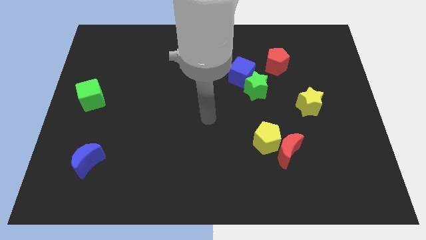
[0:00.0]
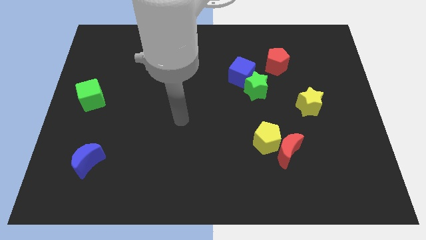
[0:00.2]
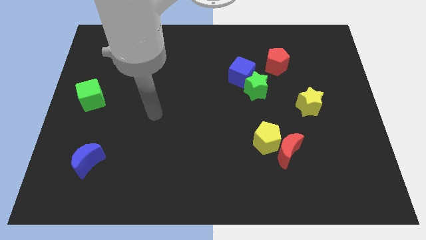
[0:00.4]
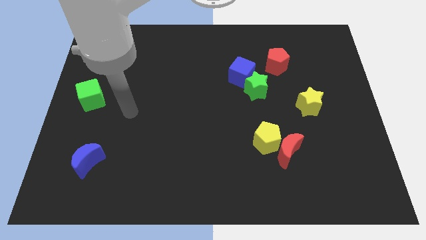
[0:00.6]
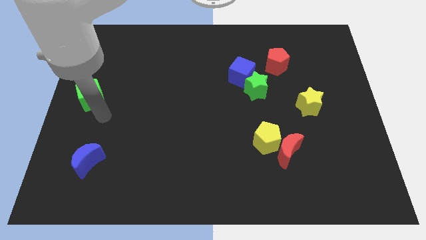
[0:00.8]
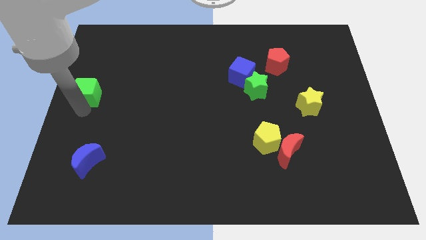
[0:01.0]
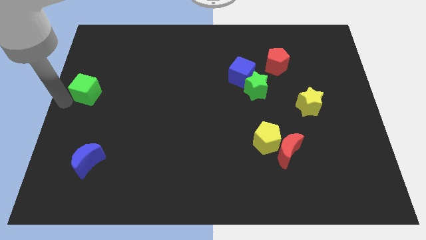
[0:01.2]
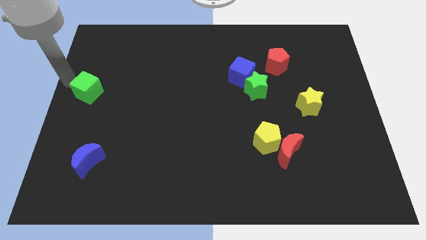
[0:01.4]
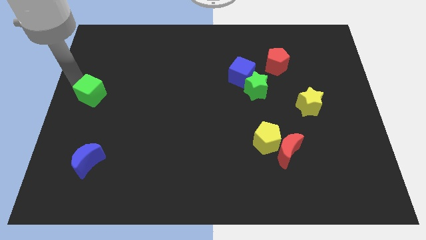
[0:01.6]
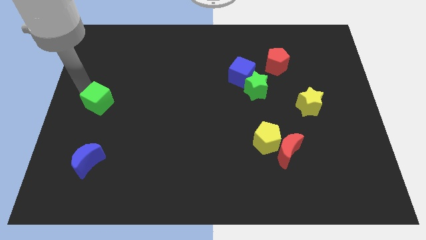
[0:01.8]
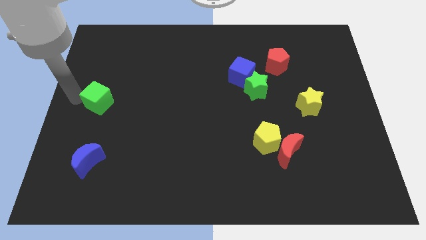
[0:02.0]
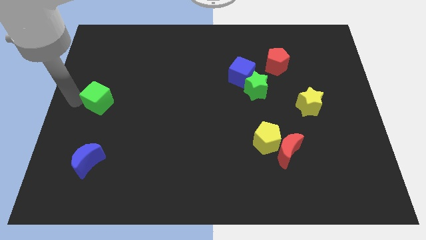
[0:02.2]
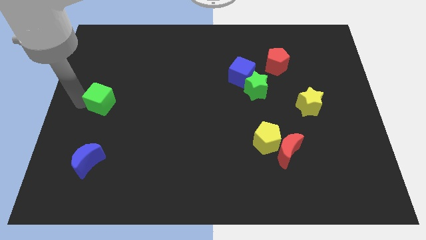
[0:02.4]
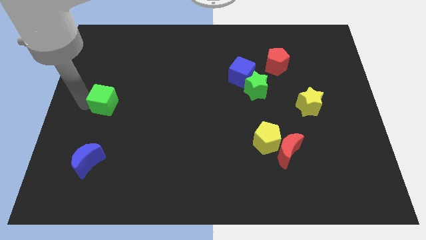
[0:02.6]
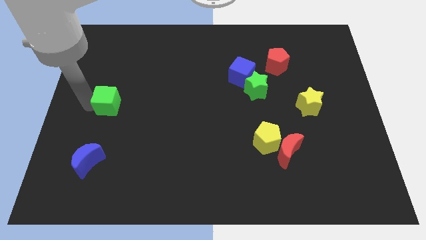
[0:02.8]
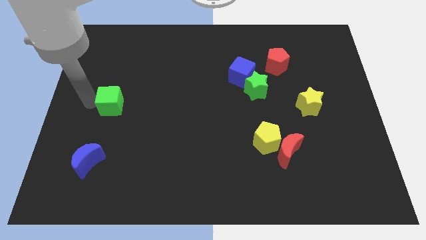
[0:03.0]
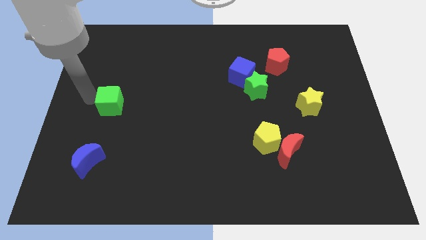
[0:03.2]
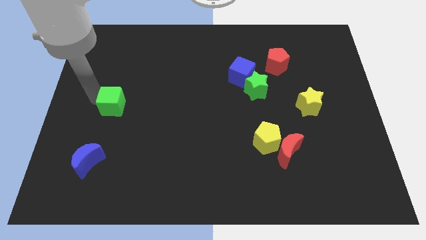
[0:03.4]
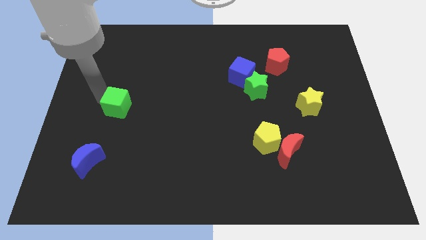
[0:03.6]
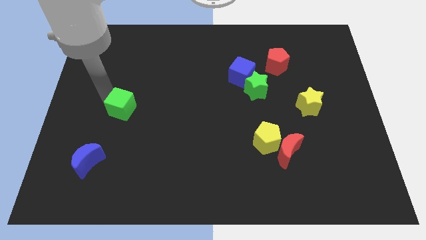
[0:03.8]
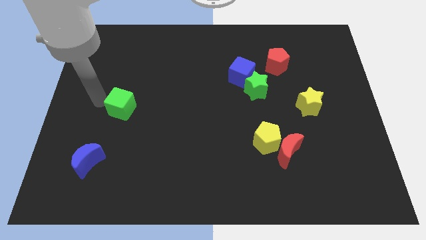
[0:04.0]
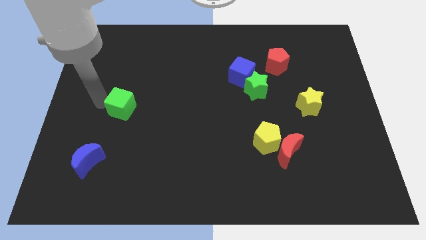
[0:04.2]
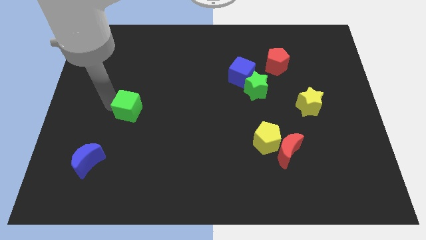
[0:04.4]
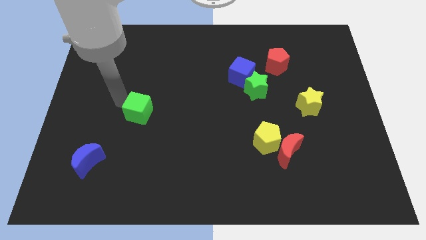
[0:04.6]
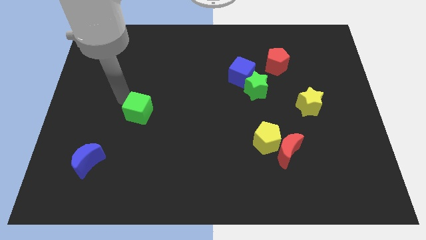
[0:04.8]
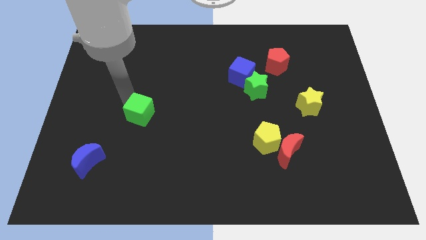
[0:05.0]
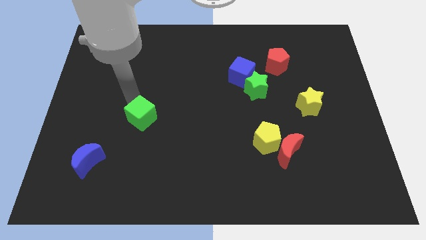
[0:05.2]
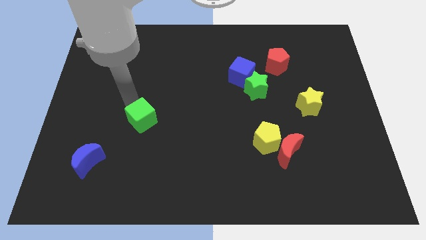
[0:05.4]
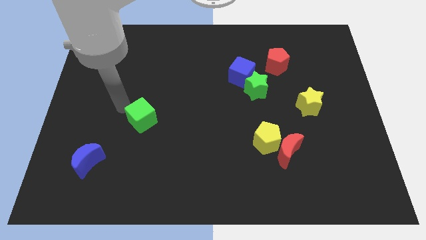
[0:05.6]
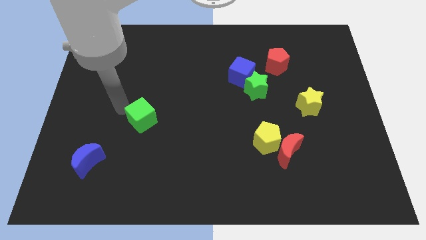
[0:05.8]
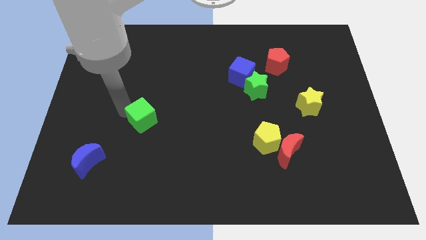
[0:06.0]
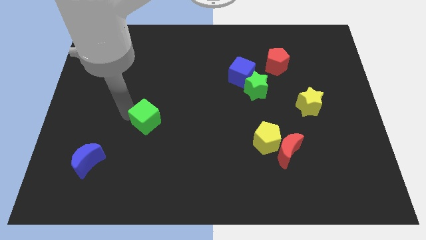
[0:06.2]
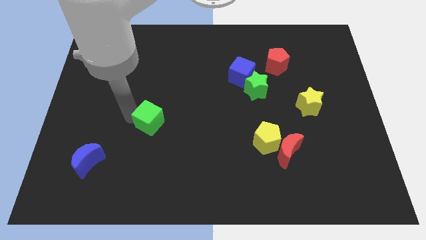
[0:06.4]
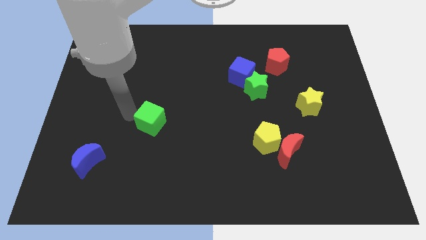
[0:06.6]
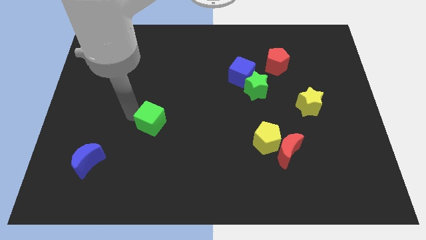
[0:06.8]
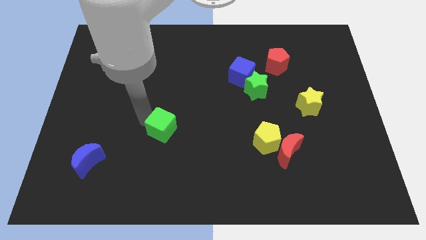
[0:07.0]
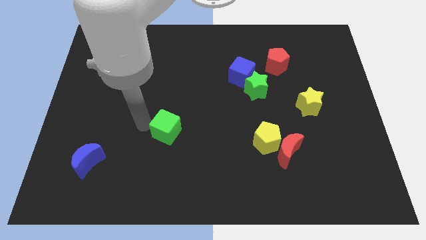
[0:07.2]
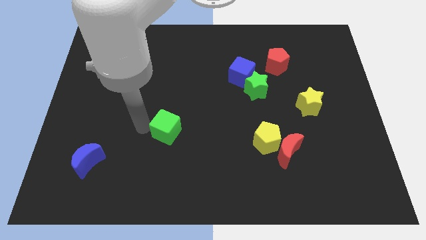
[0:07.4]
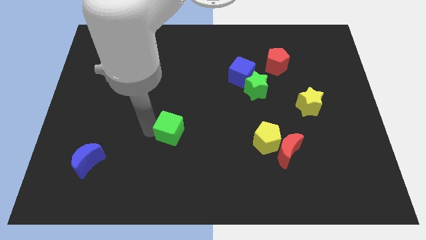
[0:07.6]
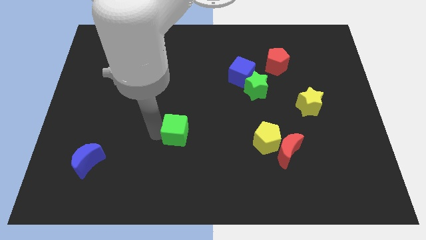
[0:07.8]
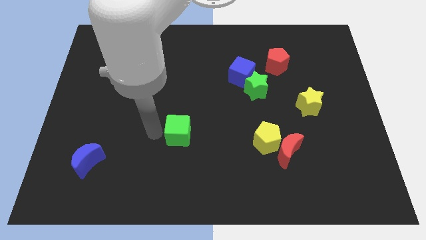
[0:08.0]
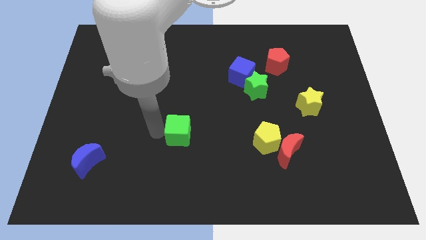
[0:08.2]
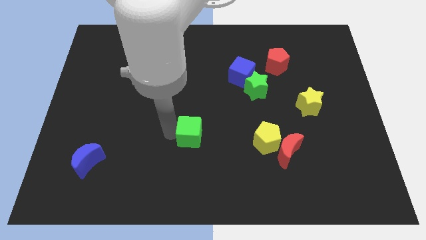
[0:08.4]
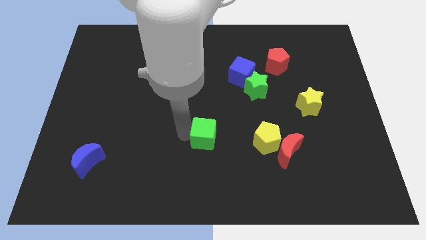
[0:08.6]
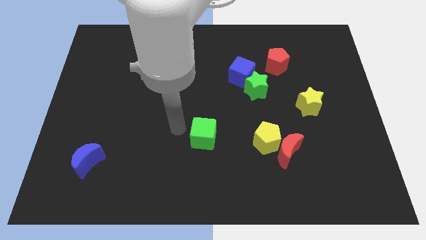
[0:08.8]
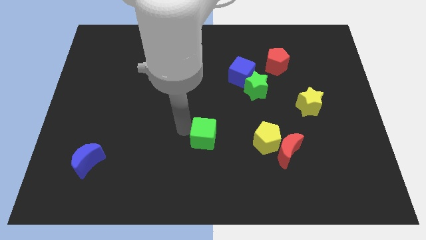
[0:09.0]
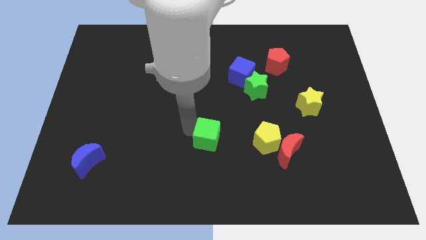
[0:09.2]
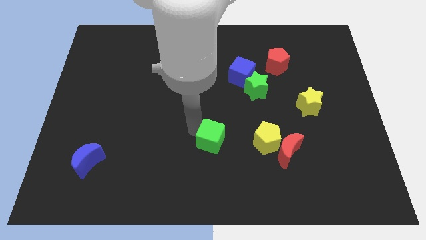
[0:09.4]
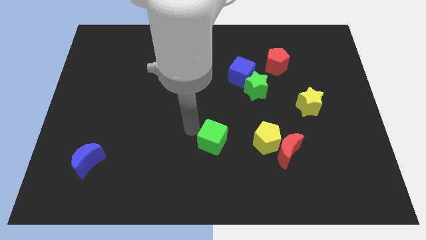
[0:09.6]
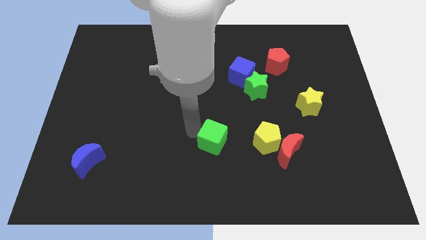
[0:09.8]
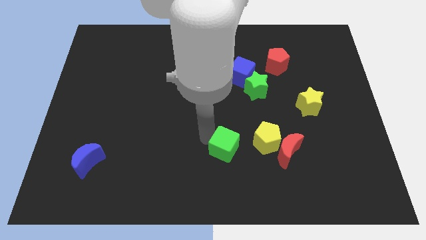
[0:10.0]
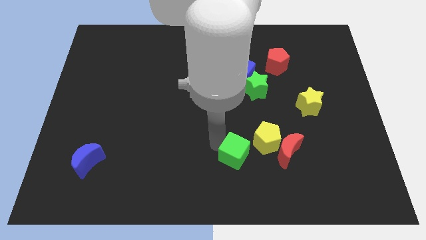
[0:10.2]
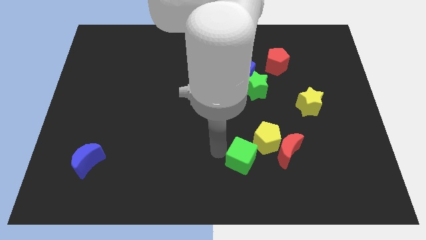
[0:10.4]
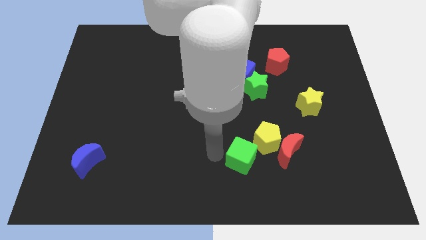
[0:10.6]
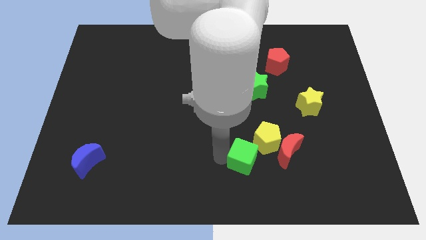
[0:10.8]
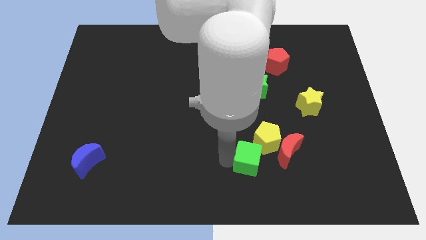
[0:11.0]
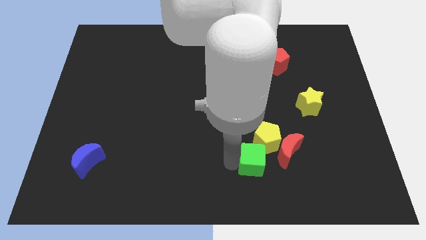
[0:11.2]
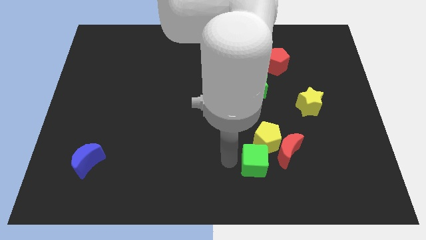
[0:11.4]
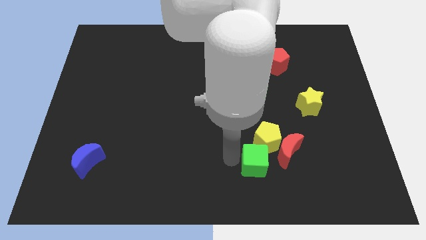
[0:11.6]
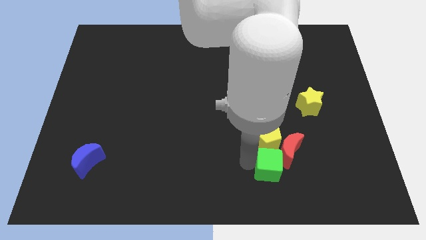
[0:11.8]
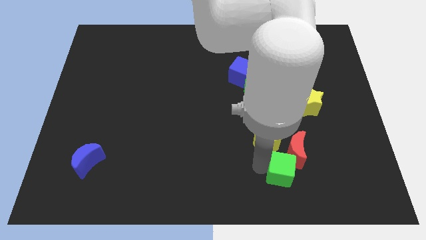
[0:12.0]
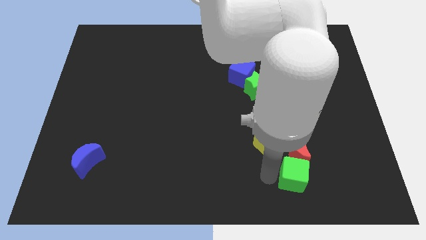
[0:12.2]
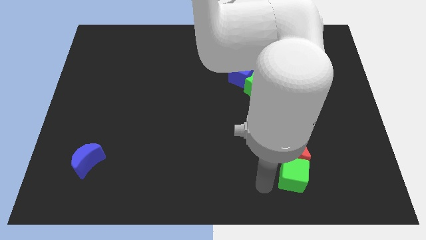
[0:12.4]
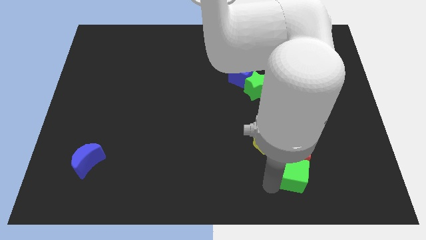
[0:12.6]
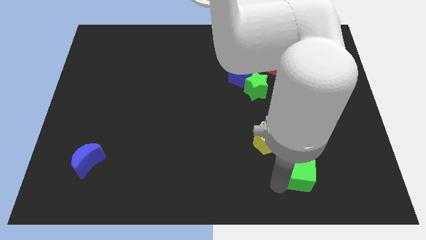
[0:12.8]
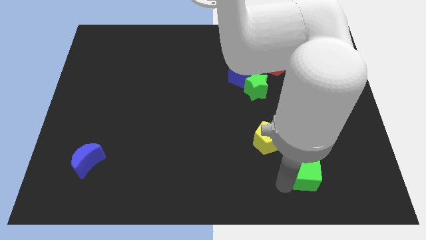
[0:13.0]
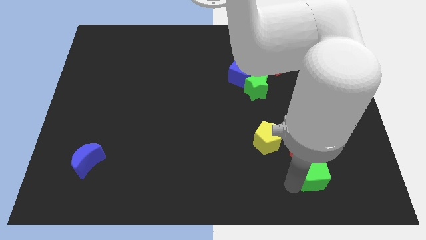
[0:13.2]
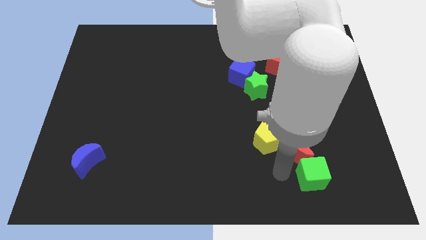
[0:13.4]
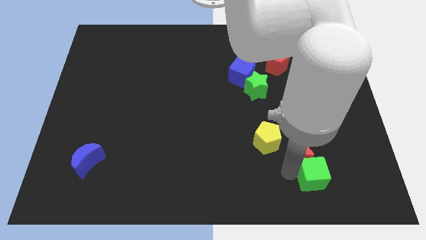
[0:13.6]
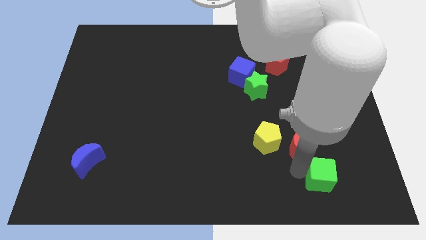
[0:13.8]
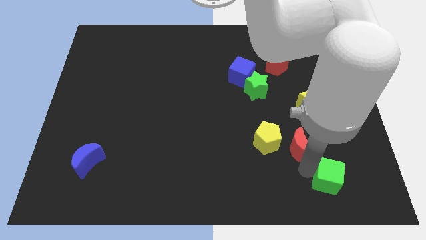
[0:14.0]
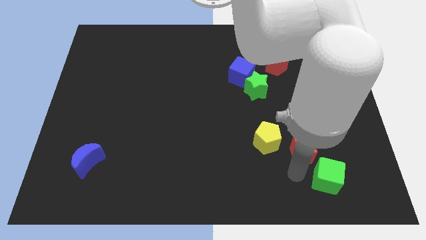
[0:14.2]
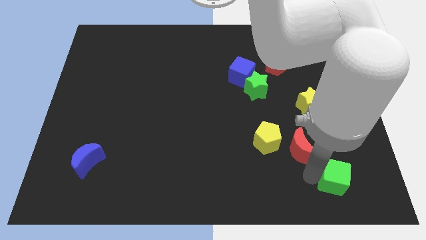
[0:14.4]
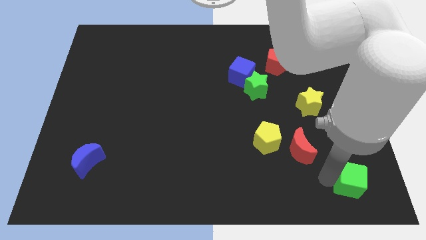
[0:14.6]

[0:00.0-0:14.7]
push the green cube to the bottom right of the board
